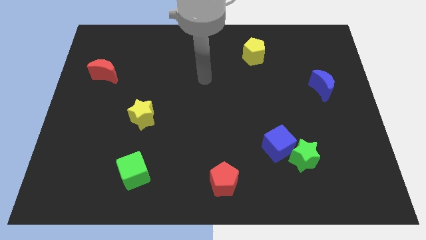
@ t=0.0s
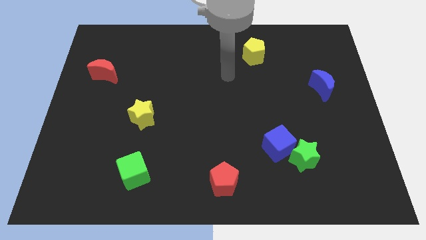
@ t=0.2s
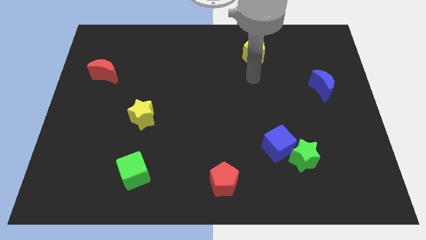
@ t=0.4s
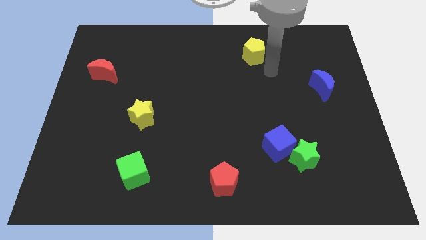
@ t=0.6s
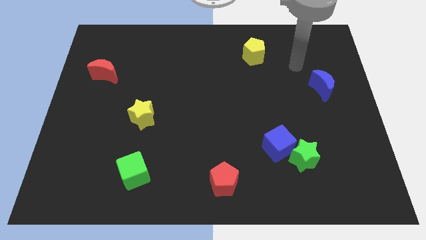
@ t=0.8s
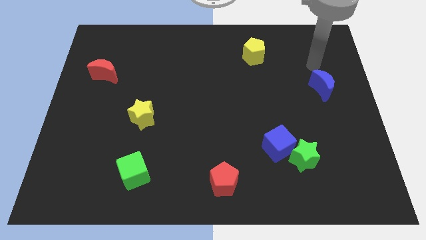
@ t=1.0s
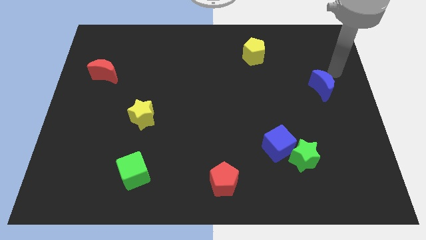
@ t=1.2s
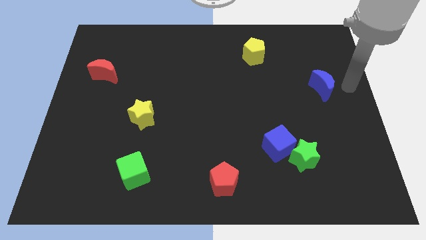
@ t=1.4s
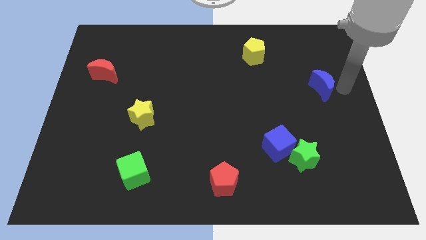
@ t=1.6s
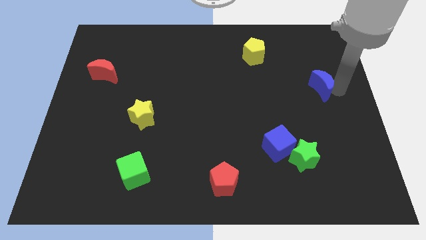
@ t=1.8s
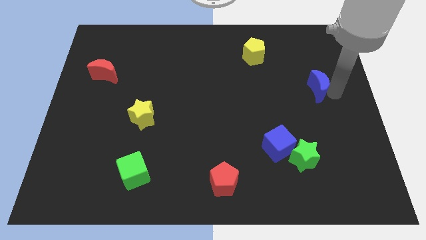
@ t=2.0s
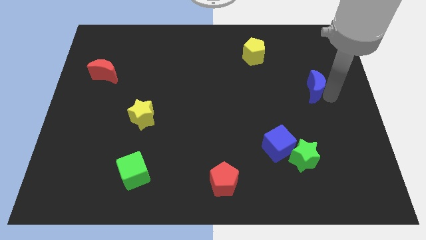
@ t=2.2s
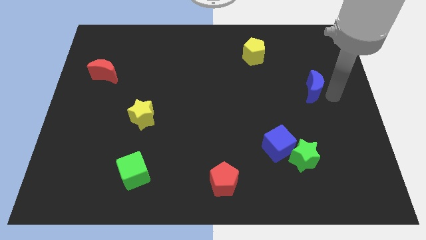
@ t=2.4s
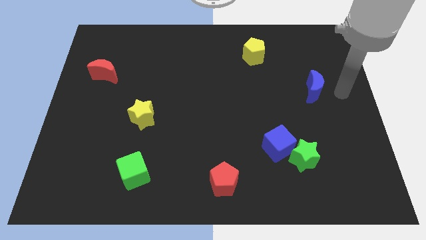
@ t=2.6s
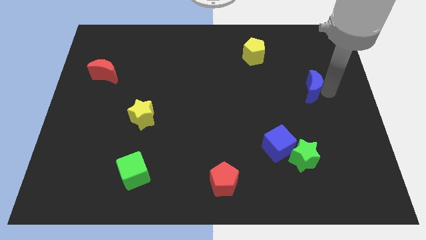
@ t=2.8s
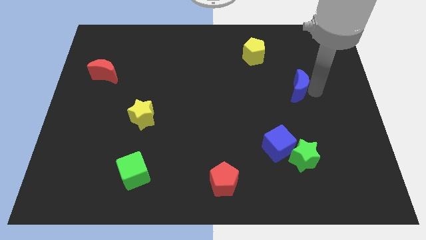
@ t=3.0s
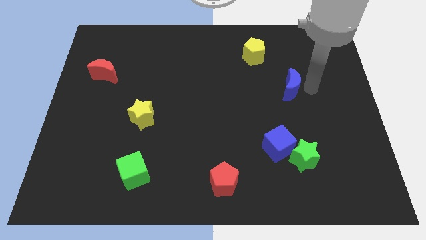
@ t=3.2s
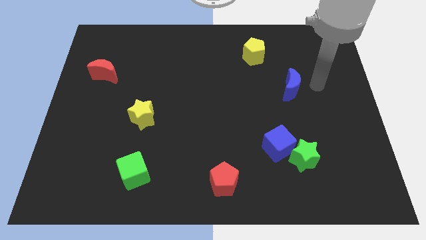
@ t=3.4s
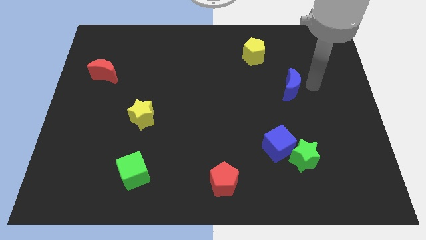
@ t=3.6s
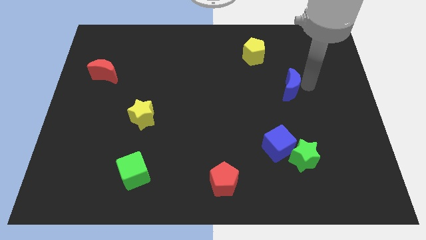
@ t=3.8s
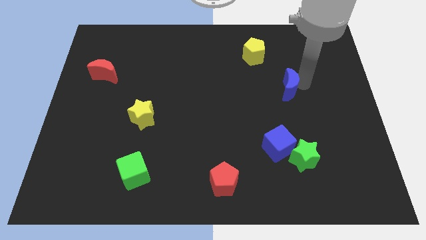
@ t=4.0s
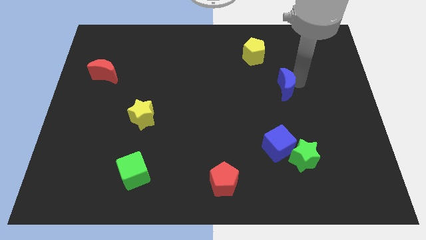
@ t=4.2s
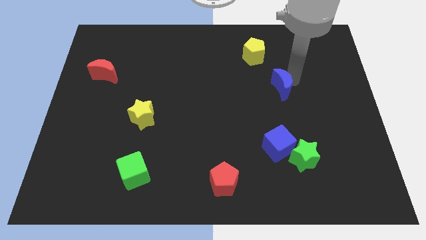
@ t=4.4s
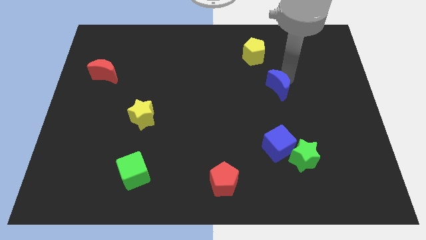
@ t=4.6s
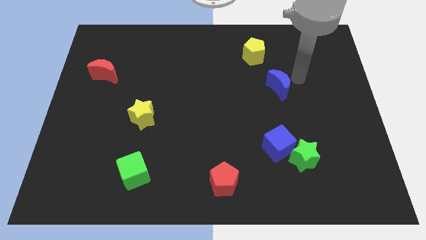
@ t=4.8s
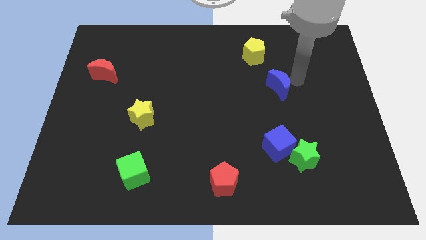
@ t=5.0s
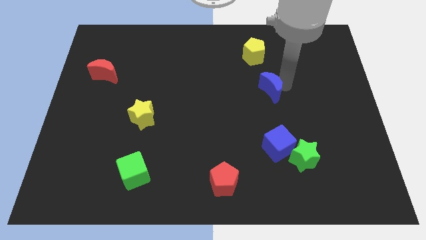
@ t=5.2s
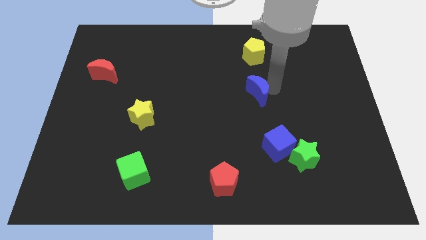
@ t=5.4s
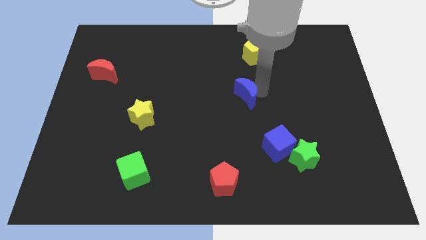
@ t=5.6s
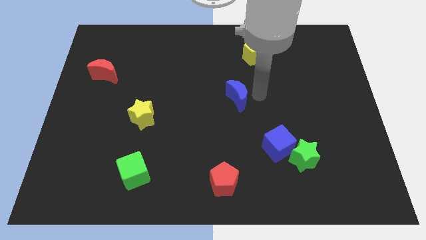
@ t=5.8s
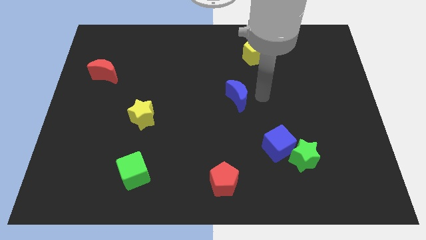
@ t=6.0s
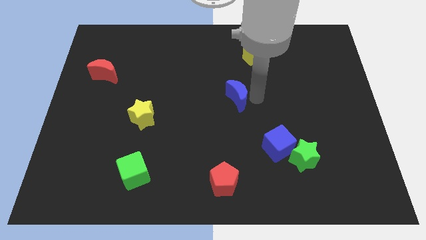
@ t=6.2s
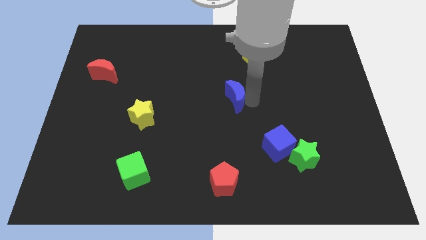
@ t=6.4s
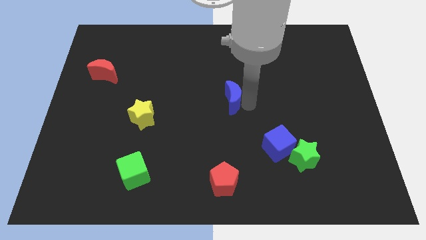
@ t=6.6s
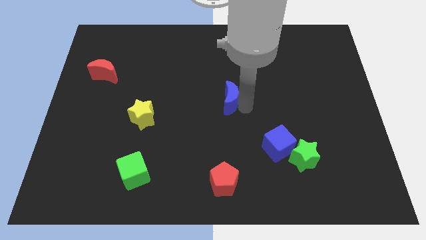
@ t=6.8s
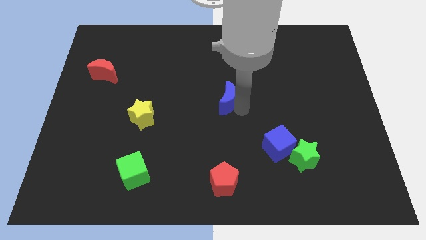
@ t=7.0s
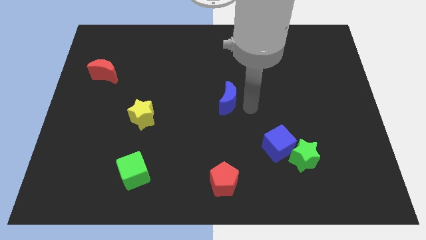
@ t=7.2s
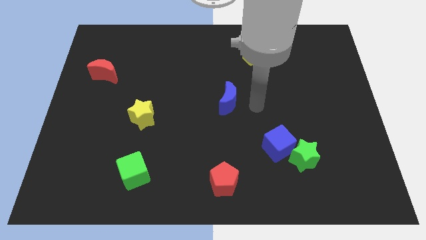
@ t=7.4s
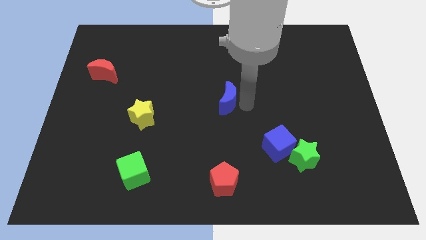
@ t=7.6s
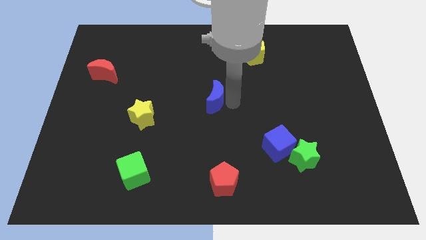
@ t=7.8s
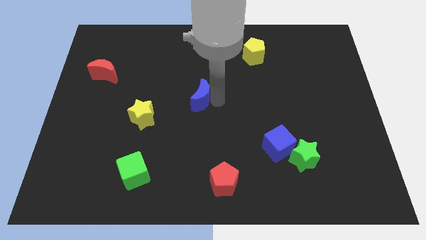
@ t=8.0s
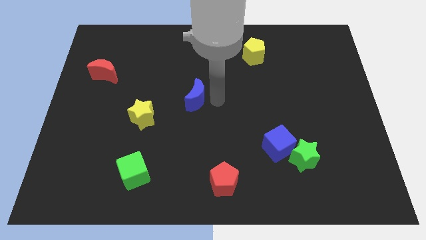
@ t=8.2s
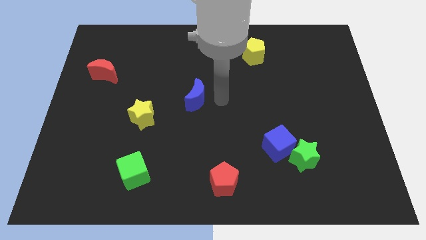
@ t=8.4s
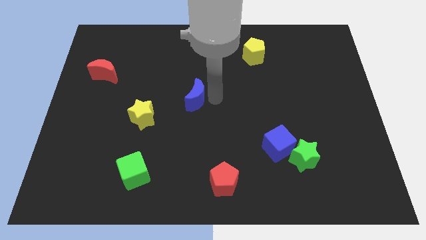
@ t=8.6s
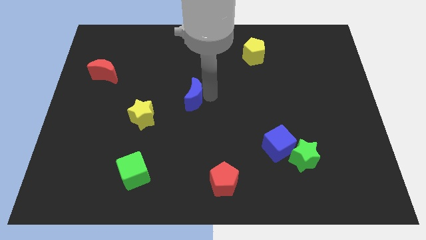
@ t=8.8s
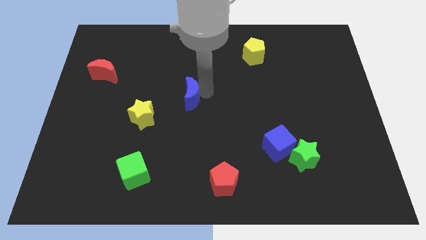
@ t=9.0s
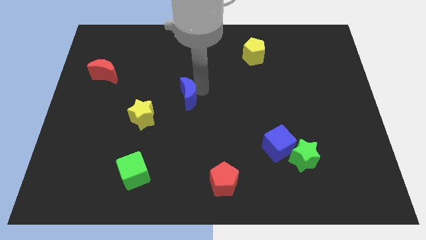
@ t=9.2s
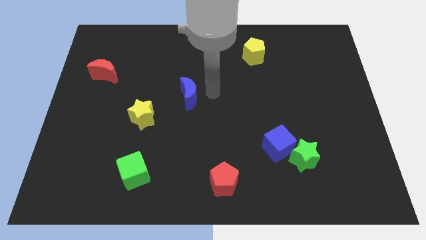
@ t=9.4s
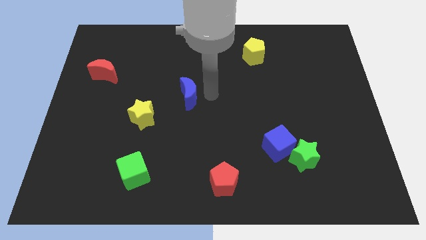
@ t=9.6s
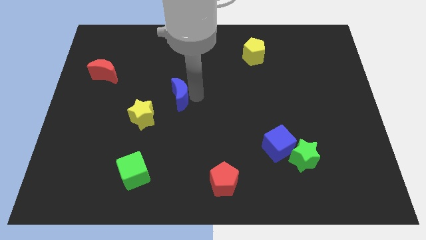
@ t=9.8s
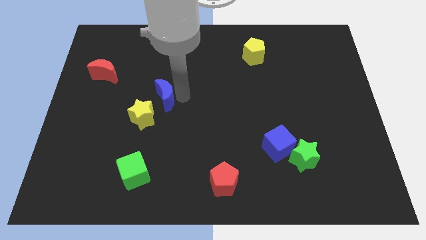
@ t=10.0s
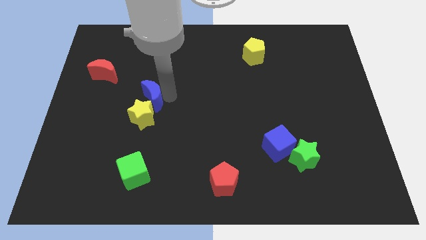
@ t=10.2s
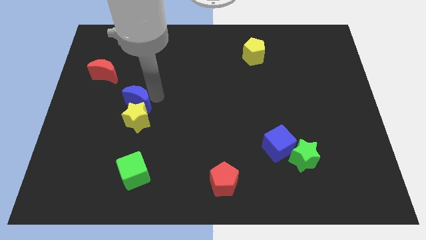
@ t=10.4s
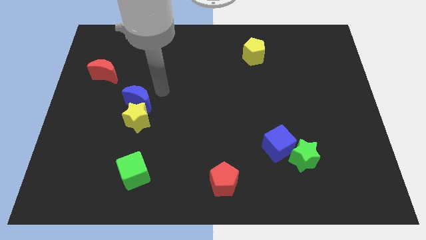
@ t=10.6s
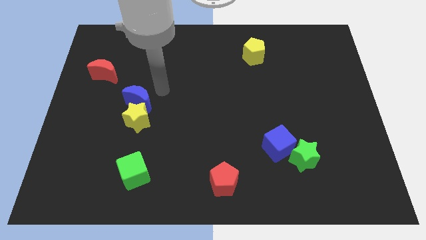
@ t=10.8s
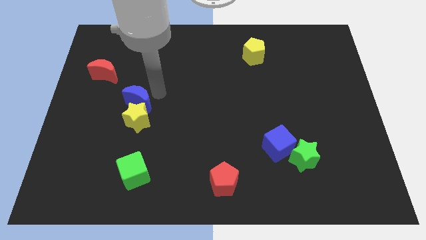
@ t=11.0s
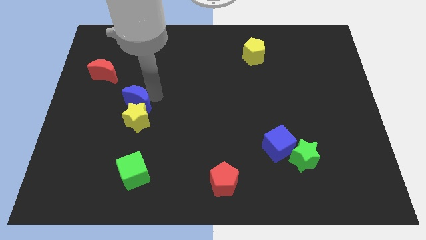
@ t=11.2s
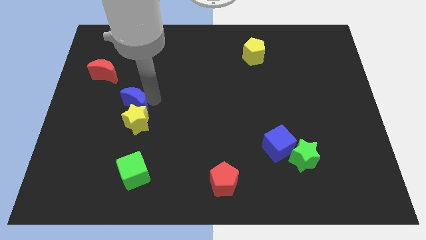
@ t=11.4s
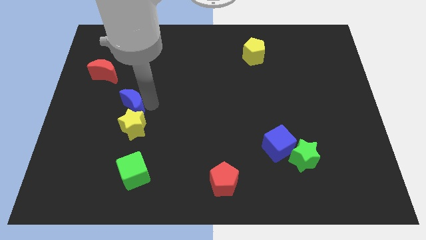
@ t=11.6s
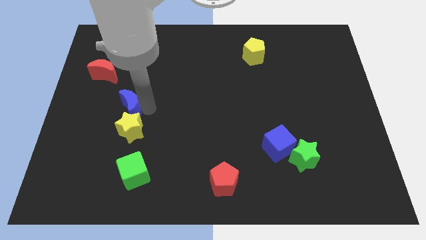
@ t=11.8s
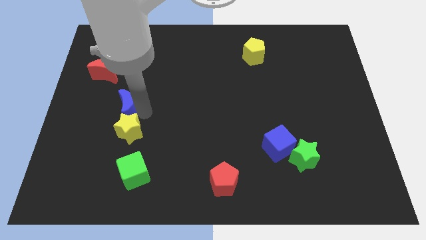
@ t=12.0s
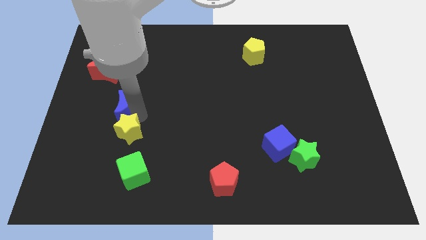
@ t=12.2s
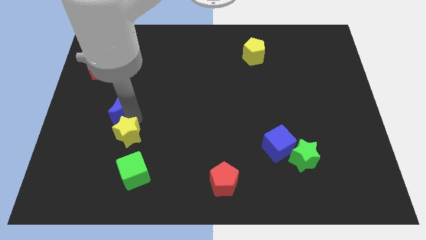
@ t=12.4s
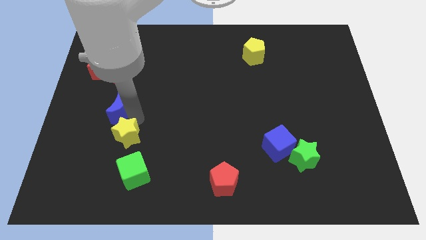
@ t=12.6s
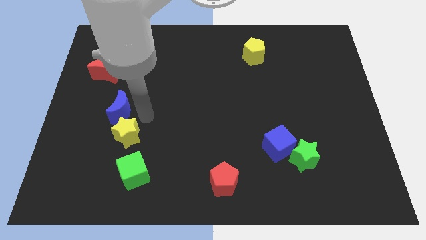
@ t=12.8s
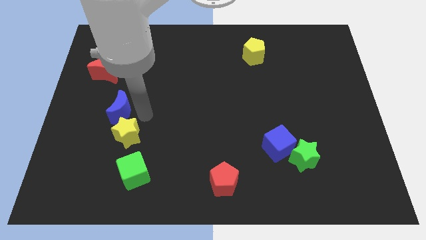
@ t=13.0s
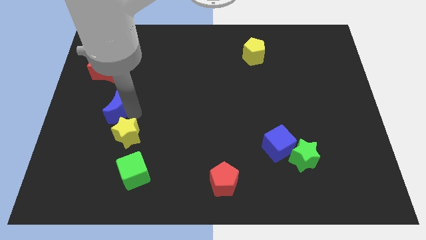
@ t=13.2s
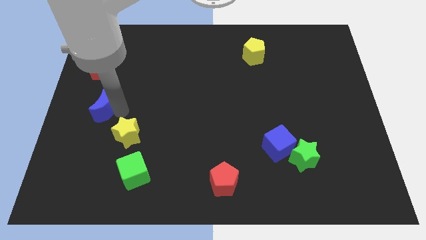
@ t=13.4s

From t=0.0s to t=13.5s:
move the blue moon to the left side of the board
